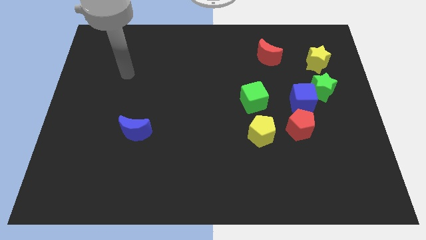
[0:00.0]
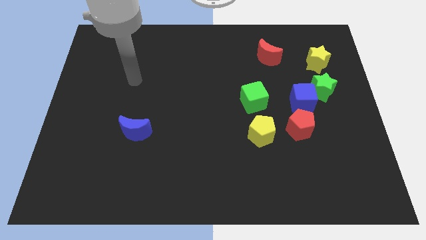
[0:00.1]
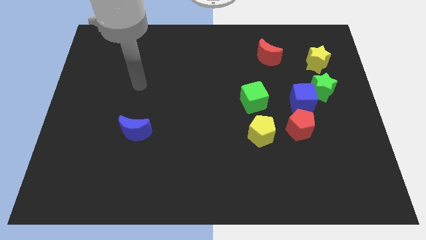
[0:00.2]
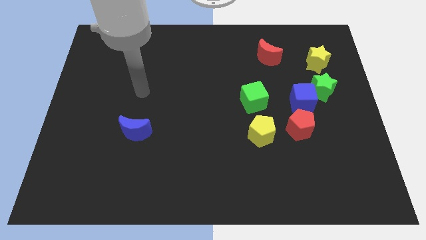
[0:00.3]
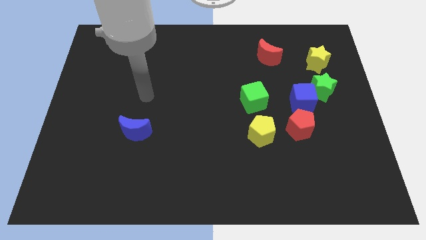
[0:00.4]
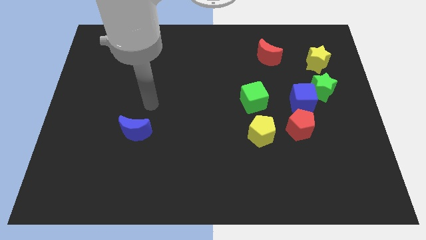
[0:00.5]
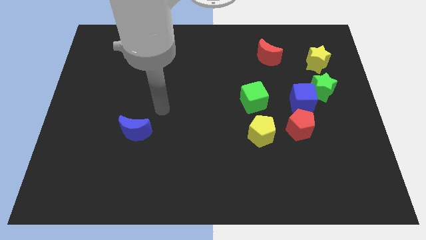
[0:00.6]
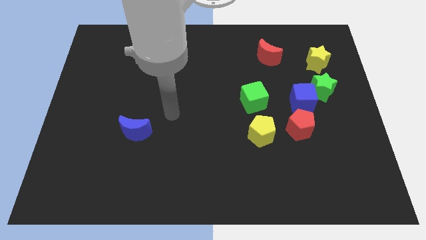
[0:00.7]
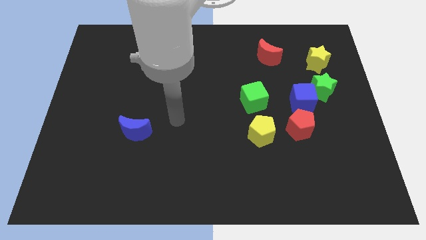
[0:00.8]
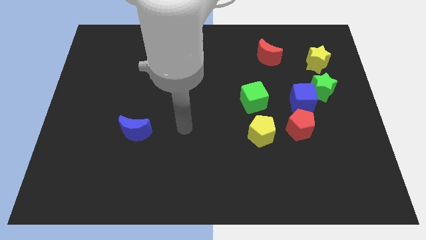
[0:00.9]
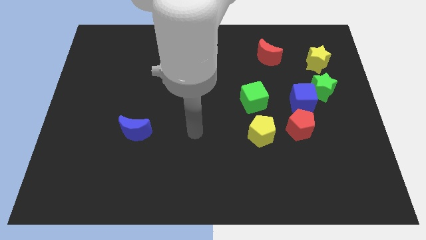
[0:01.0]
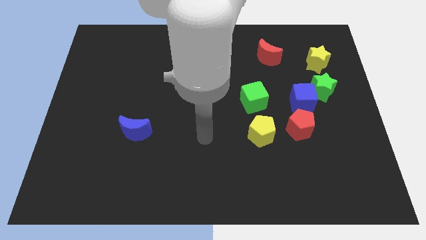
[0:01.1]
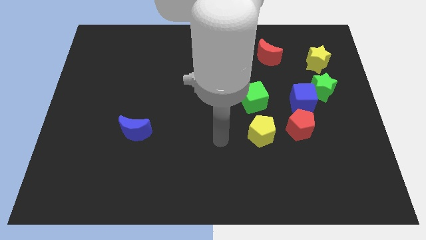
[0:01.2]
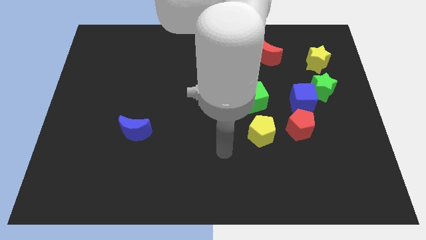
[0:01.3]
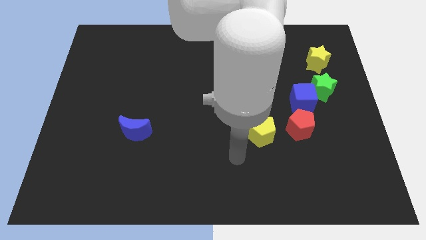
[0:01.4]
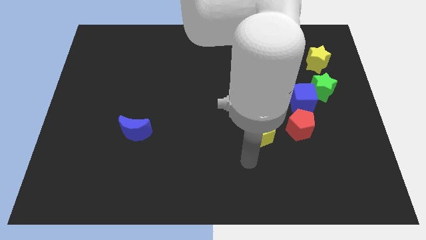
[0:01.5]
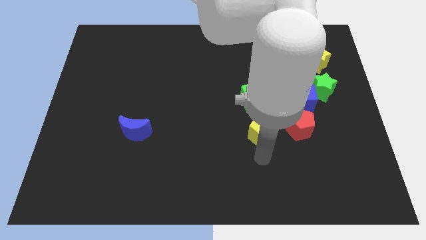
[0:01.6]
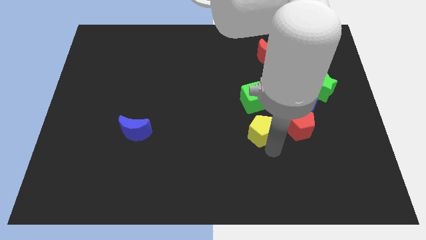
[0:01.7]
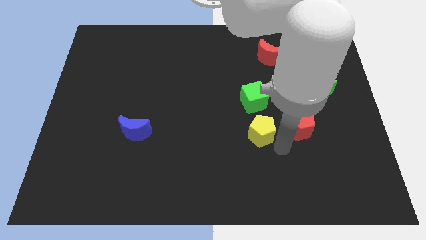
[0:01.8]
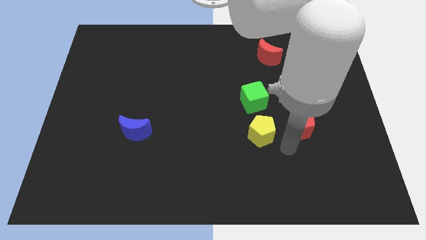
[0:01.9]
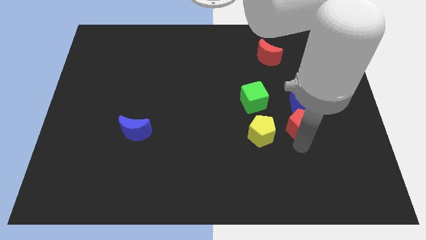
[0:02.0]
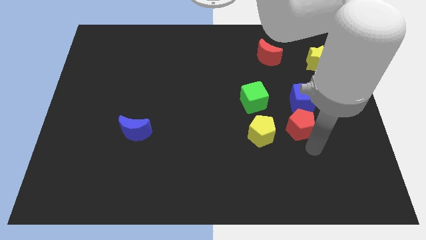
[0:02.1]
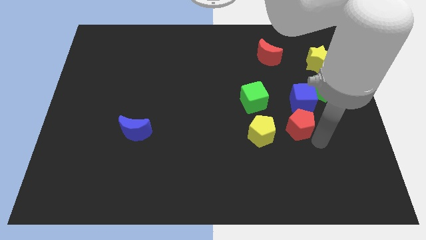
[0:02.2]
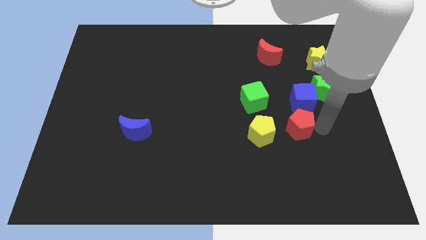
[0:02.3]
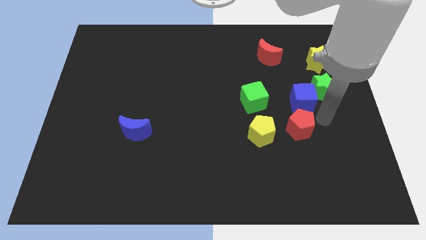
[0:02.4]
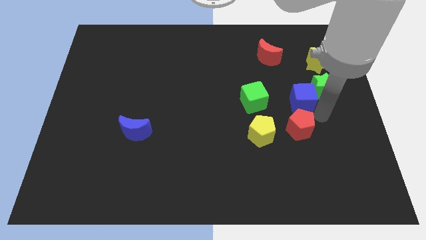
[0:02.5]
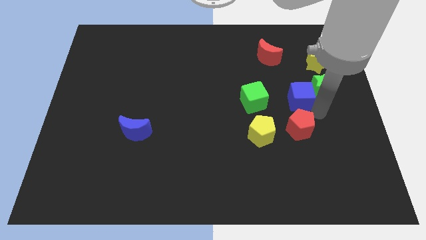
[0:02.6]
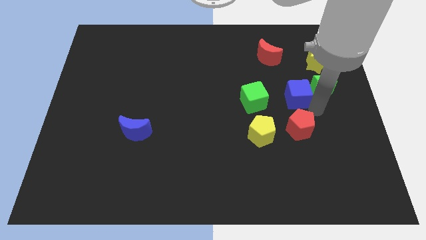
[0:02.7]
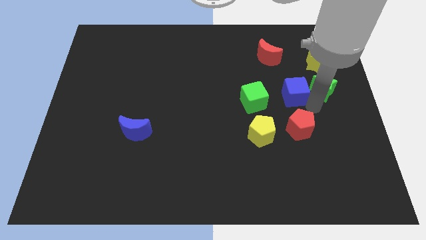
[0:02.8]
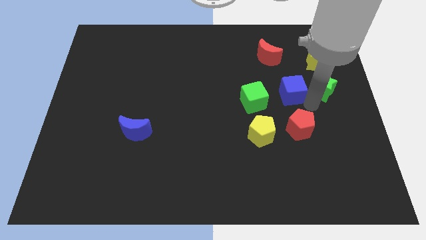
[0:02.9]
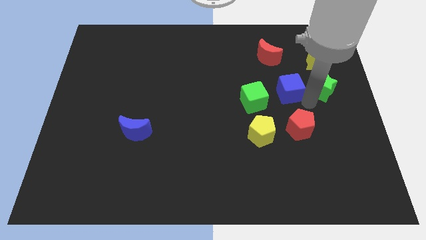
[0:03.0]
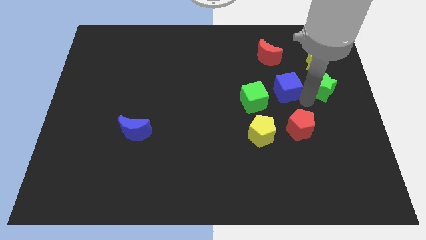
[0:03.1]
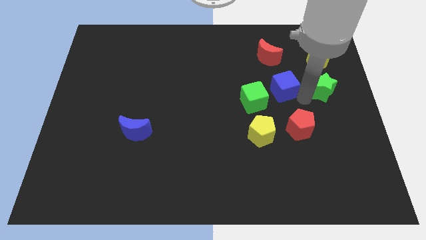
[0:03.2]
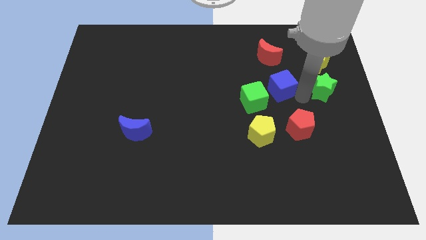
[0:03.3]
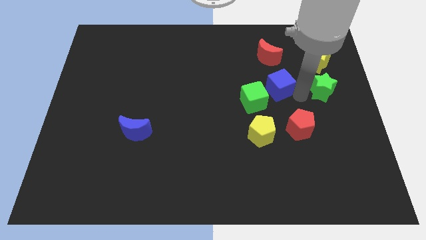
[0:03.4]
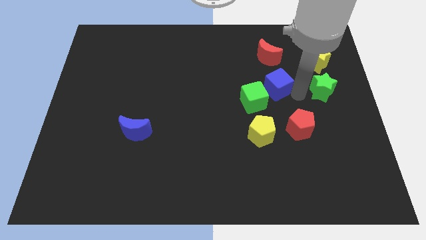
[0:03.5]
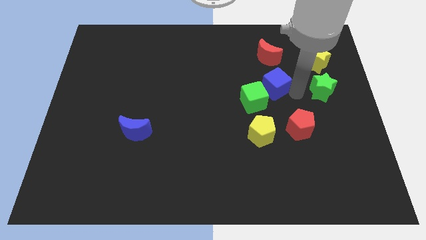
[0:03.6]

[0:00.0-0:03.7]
pull the blue cube apart from the green star and red pentagon

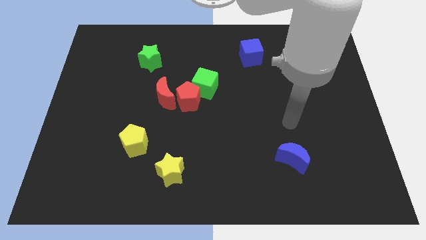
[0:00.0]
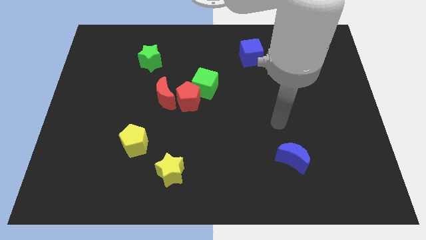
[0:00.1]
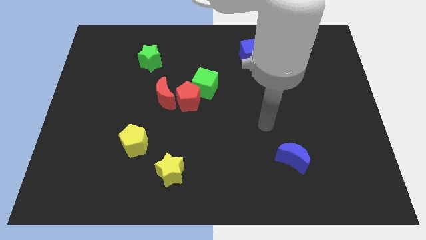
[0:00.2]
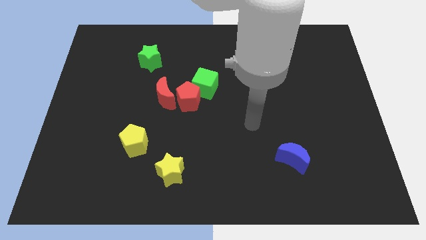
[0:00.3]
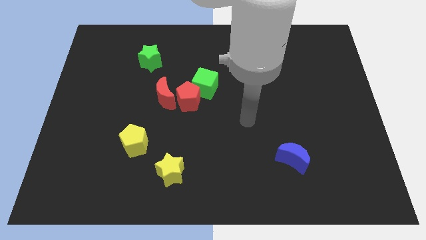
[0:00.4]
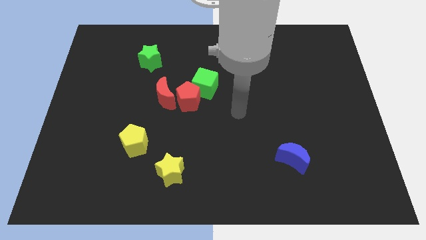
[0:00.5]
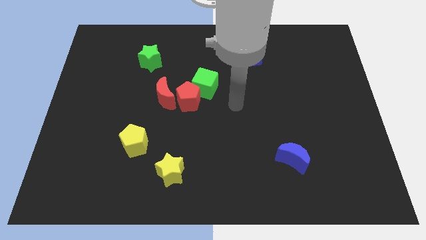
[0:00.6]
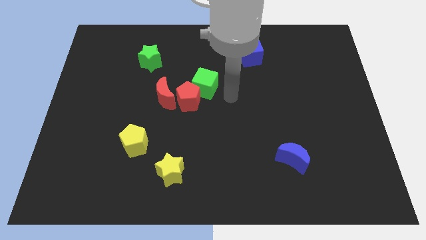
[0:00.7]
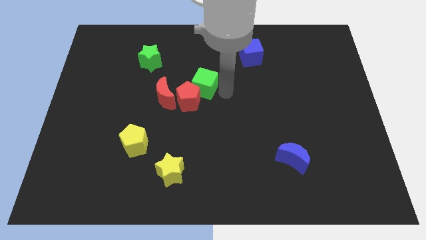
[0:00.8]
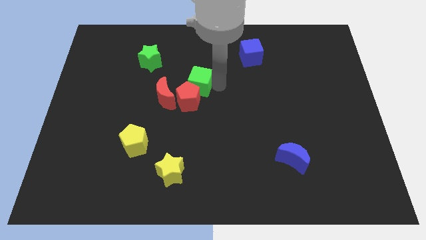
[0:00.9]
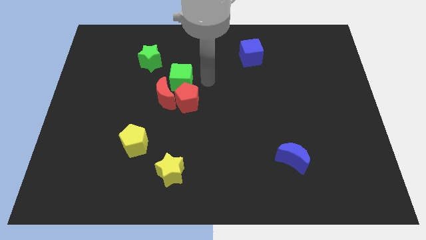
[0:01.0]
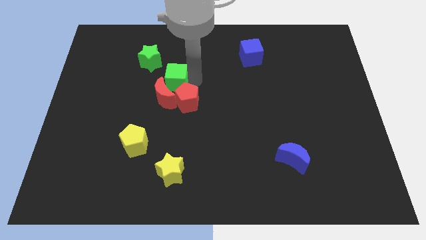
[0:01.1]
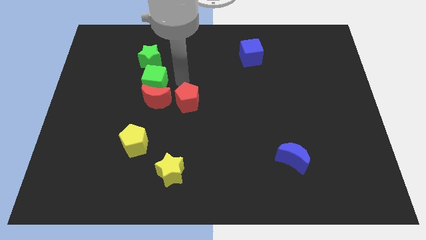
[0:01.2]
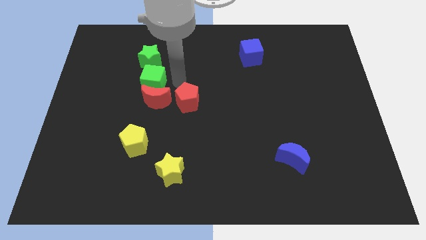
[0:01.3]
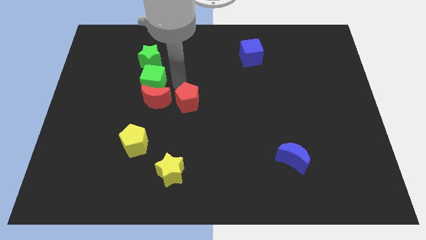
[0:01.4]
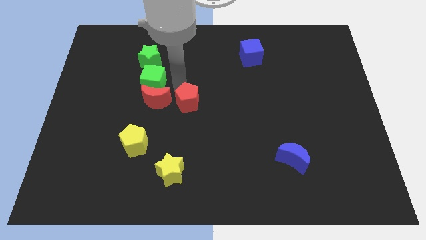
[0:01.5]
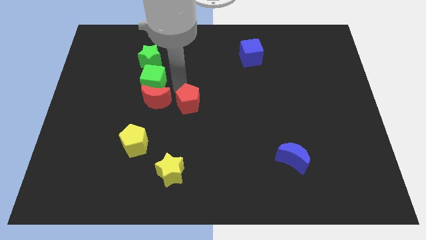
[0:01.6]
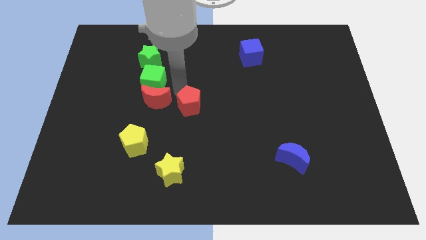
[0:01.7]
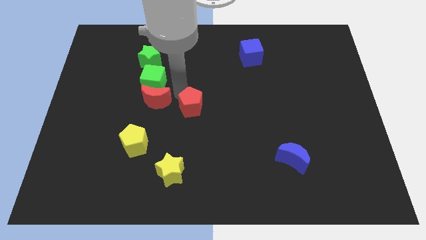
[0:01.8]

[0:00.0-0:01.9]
pull the red pentagon apart from the green cube and red moon

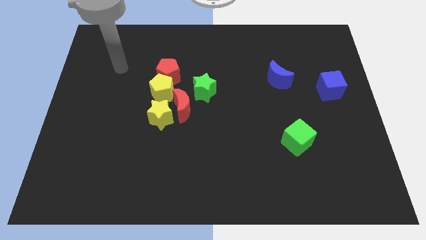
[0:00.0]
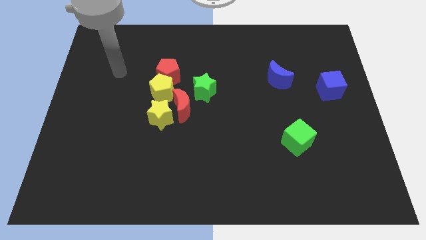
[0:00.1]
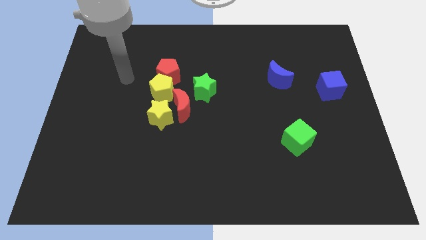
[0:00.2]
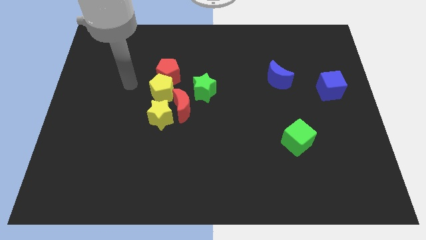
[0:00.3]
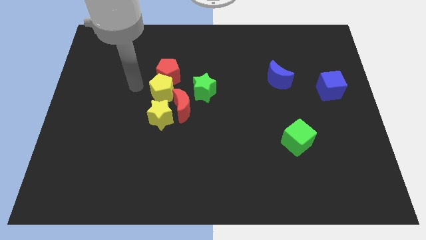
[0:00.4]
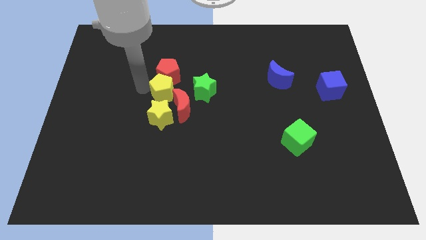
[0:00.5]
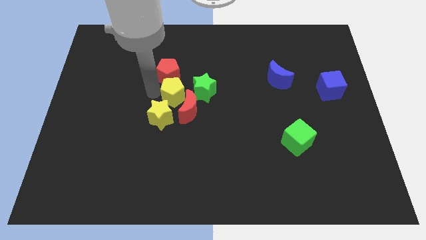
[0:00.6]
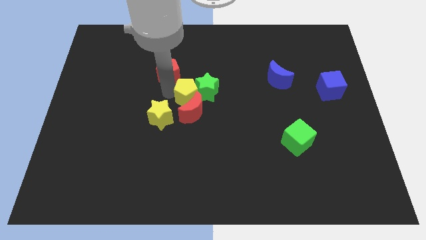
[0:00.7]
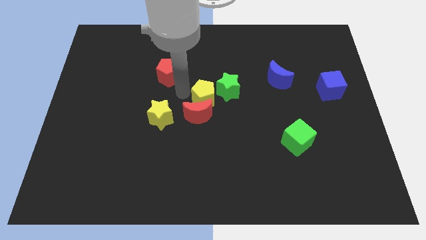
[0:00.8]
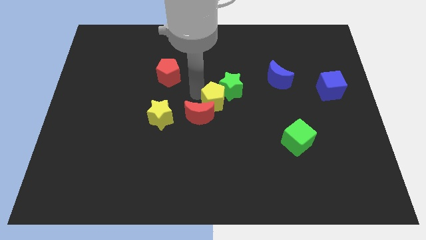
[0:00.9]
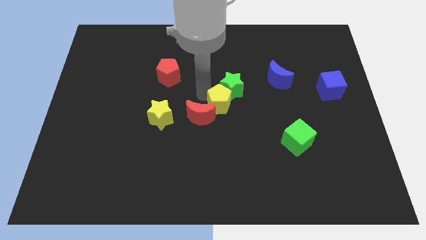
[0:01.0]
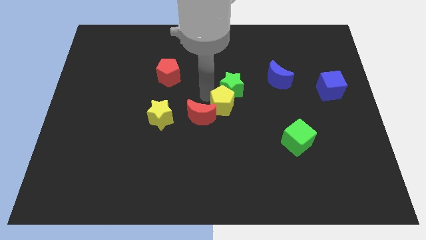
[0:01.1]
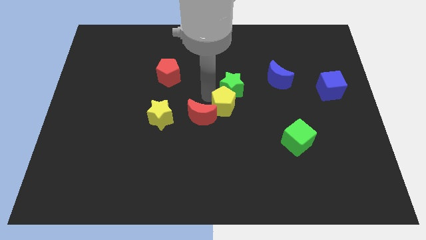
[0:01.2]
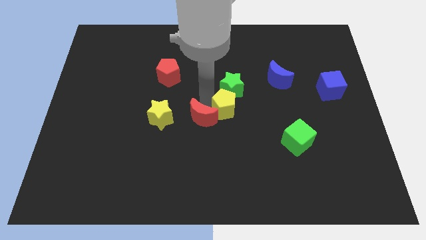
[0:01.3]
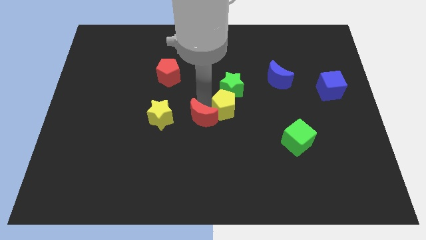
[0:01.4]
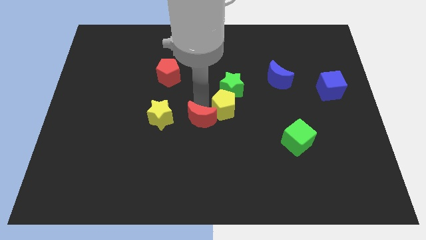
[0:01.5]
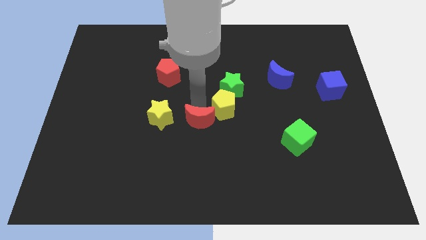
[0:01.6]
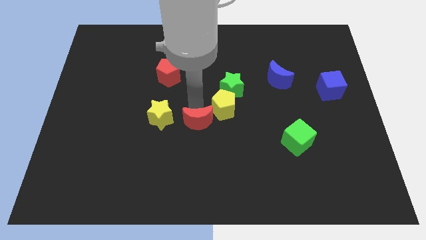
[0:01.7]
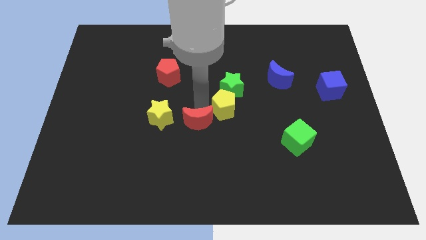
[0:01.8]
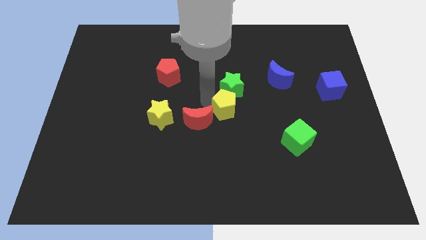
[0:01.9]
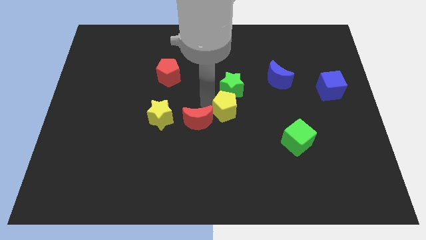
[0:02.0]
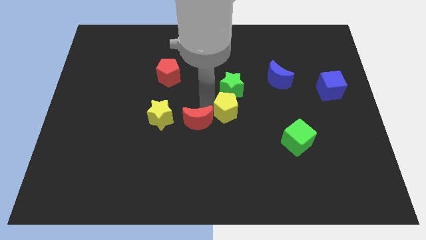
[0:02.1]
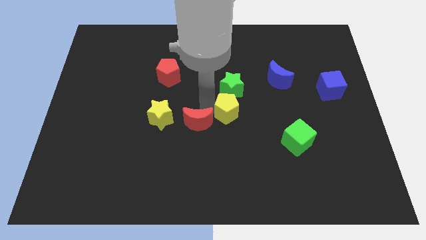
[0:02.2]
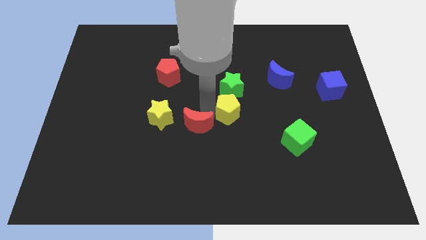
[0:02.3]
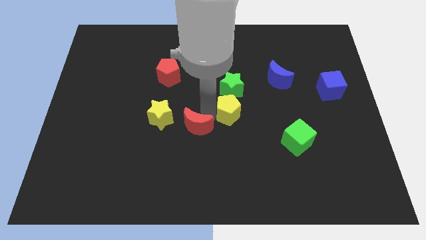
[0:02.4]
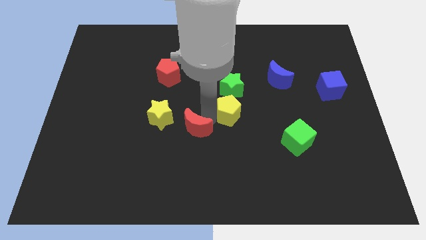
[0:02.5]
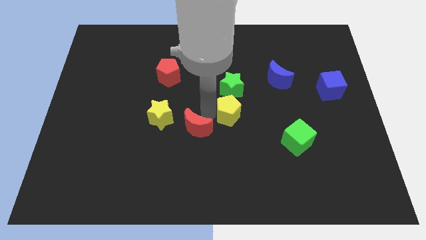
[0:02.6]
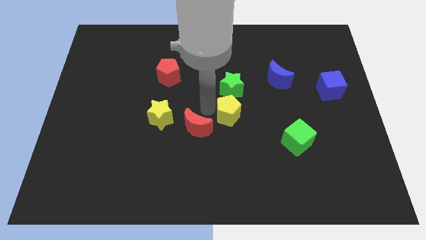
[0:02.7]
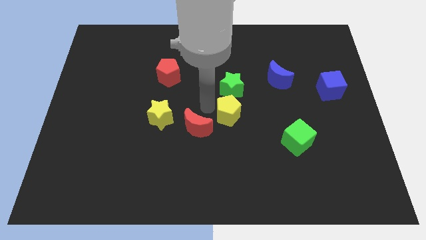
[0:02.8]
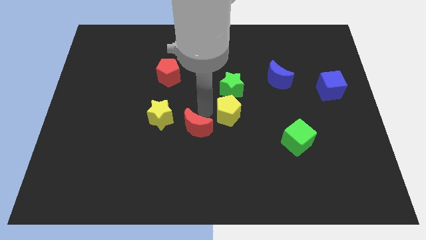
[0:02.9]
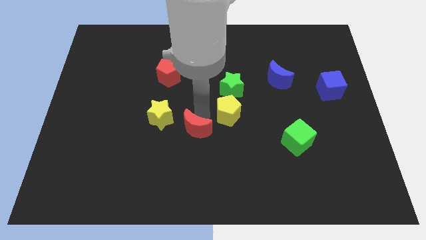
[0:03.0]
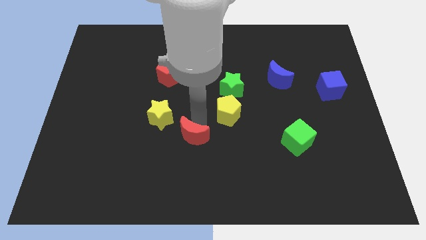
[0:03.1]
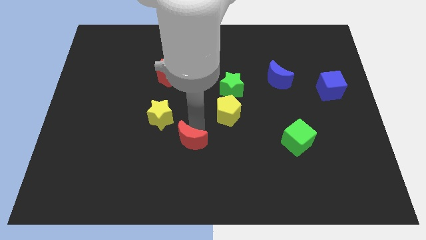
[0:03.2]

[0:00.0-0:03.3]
move the red moon away from the yellow star, green star, and yellow pentagon

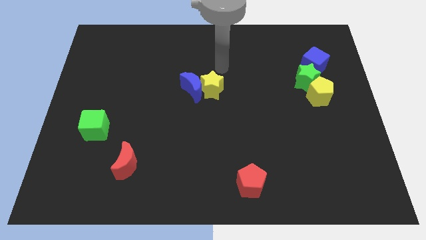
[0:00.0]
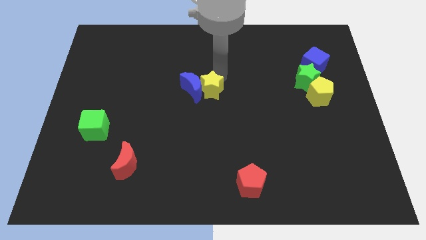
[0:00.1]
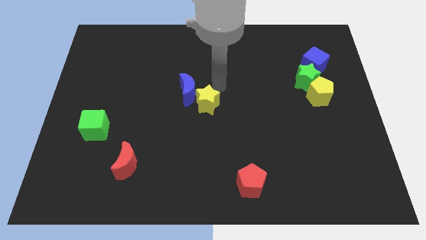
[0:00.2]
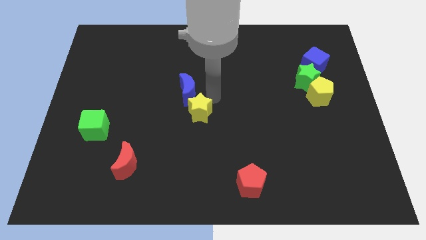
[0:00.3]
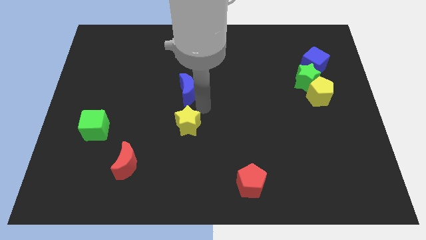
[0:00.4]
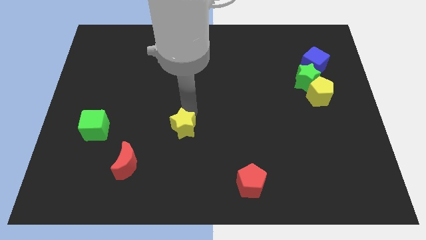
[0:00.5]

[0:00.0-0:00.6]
move the blue moon away from the yellow star
